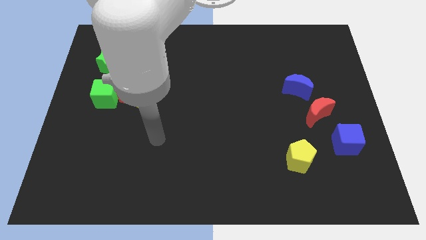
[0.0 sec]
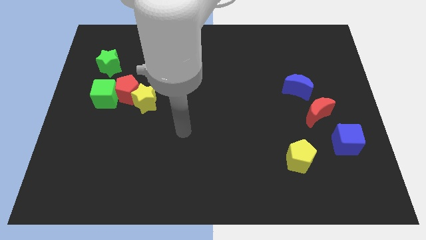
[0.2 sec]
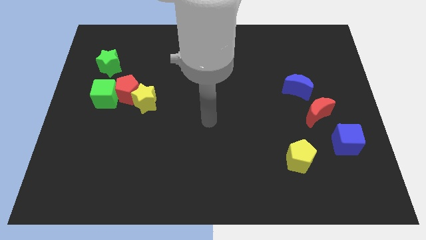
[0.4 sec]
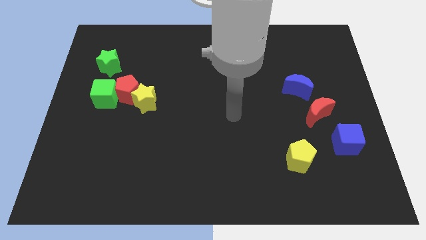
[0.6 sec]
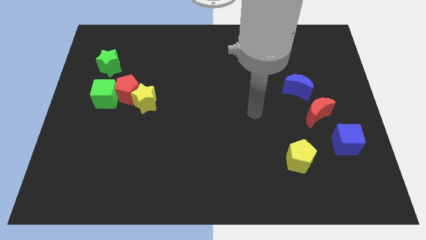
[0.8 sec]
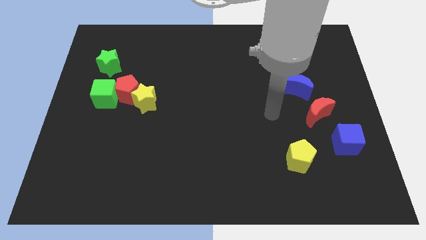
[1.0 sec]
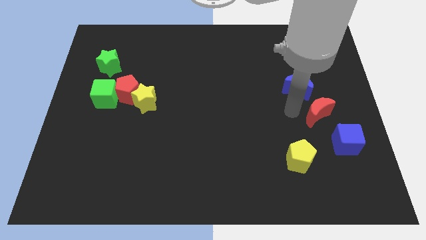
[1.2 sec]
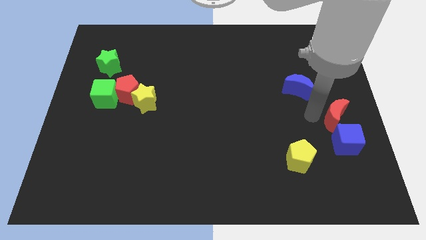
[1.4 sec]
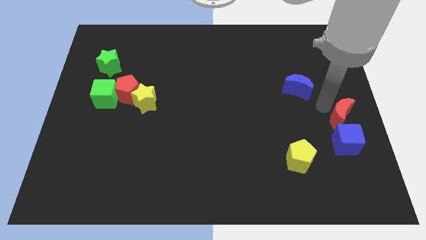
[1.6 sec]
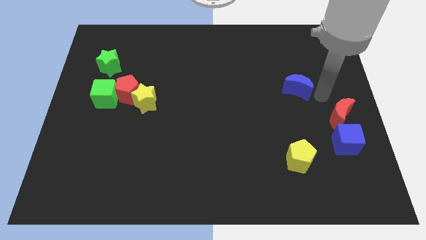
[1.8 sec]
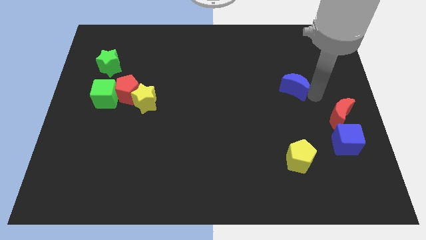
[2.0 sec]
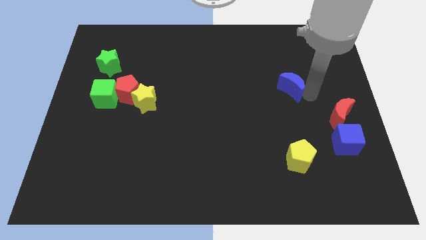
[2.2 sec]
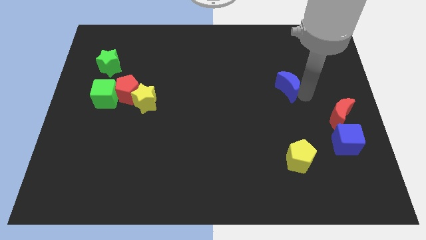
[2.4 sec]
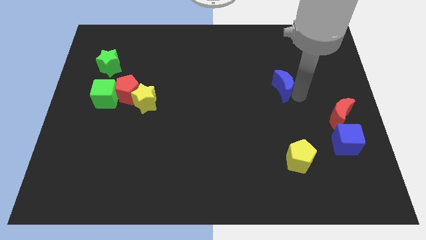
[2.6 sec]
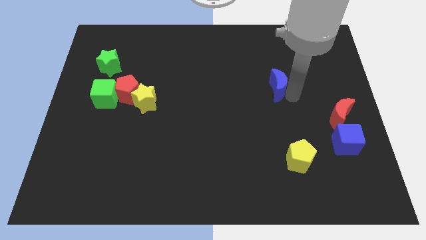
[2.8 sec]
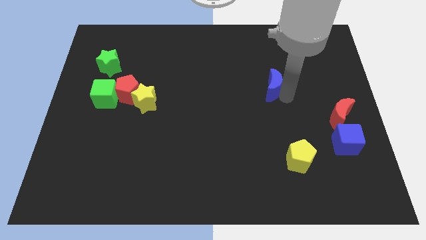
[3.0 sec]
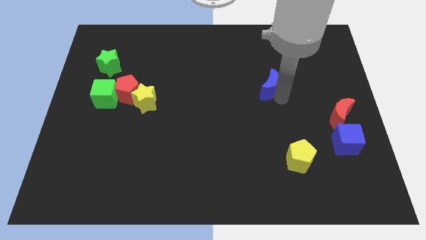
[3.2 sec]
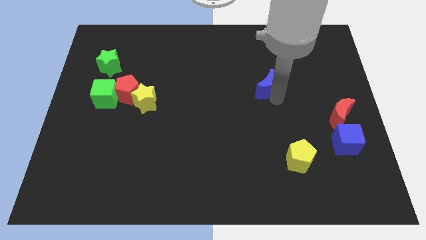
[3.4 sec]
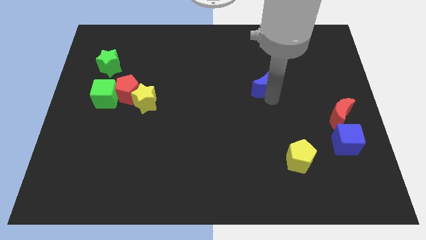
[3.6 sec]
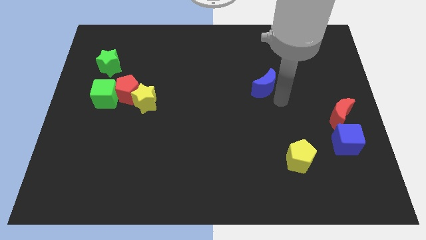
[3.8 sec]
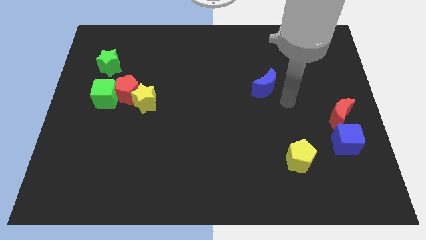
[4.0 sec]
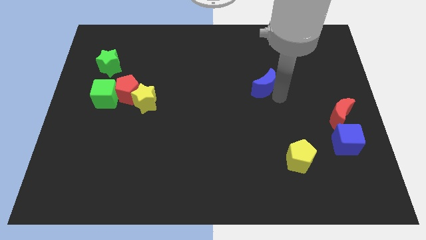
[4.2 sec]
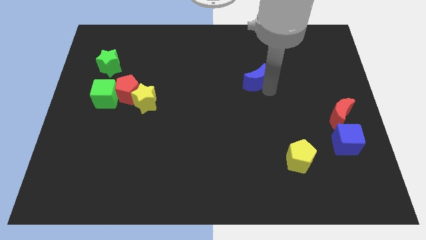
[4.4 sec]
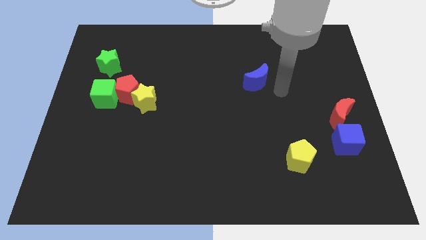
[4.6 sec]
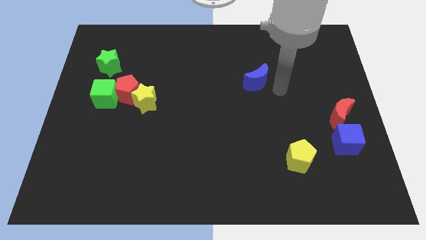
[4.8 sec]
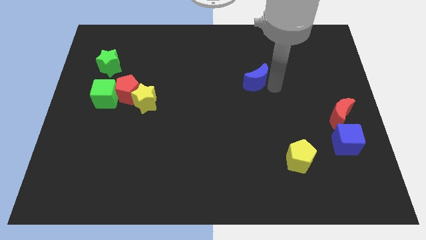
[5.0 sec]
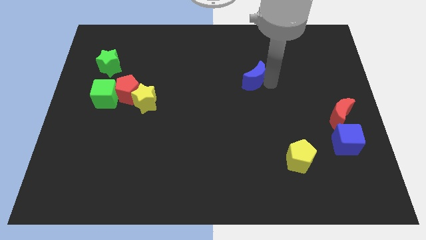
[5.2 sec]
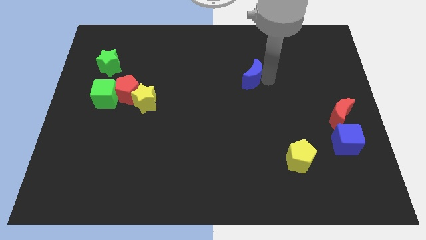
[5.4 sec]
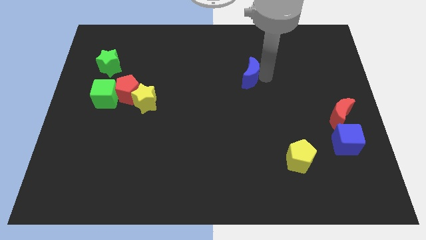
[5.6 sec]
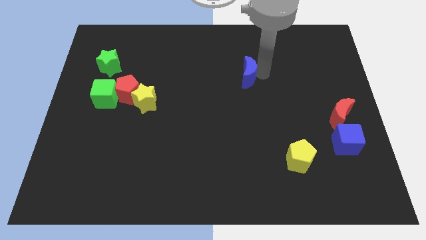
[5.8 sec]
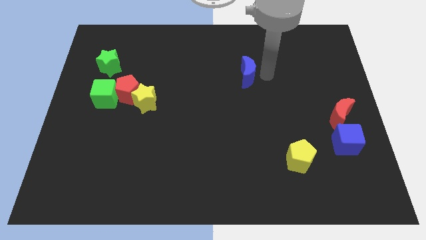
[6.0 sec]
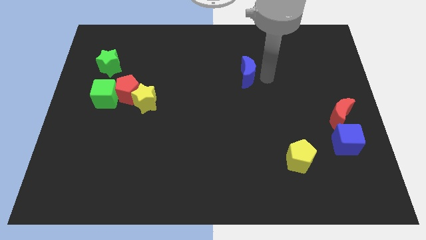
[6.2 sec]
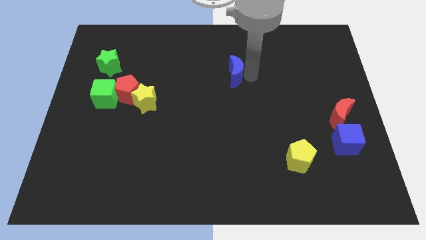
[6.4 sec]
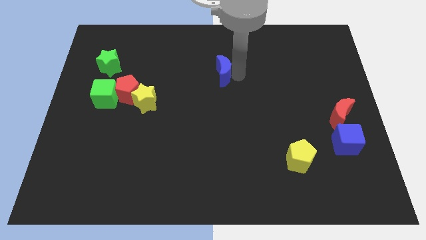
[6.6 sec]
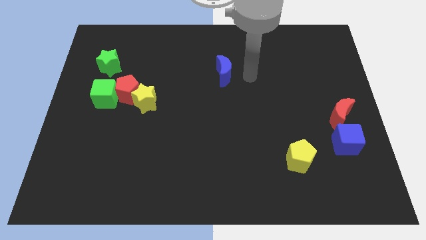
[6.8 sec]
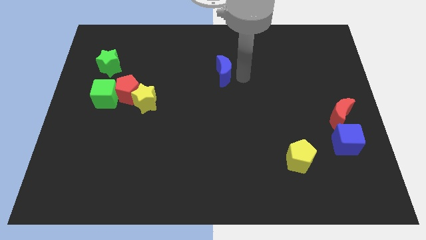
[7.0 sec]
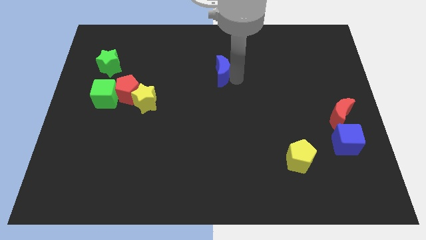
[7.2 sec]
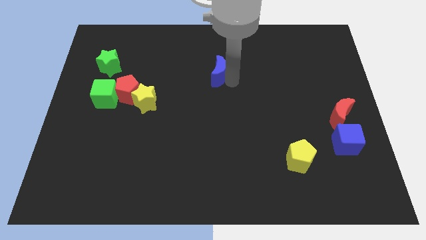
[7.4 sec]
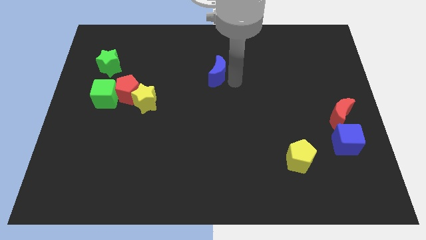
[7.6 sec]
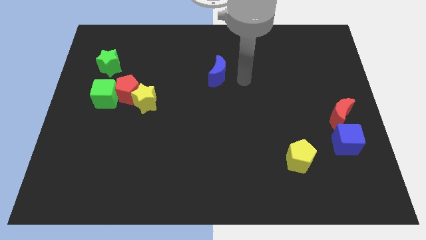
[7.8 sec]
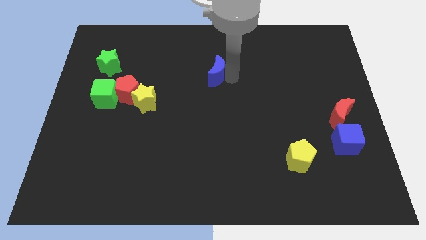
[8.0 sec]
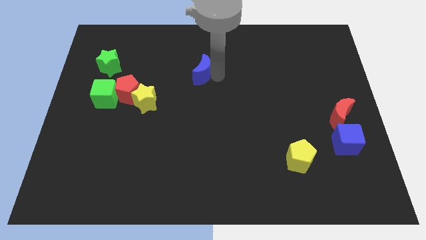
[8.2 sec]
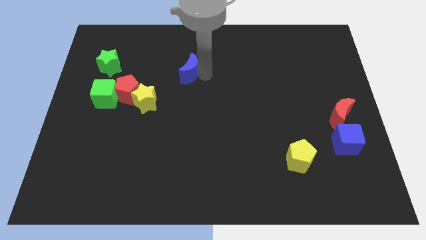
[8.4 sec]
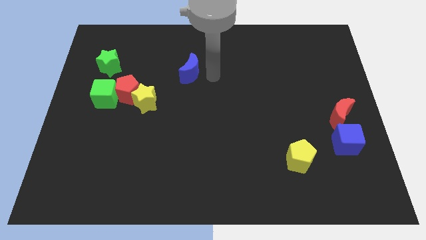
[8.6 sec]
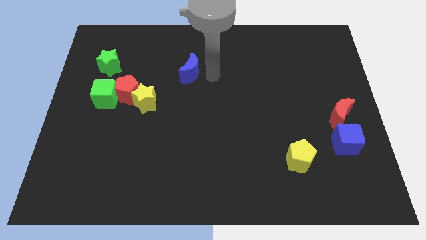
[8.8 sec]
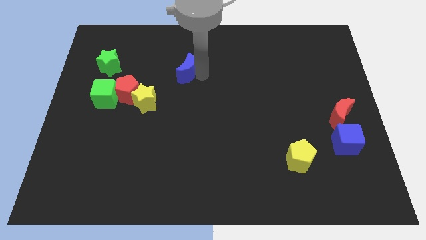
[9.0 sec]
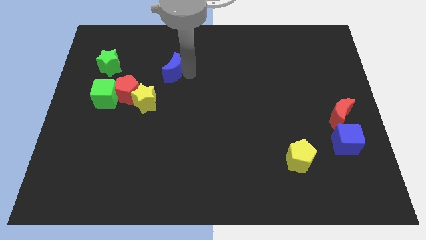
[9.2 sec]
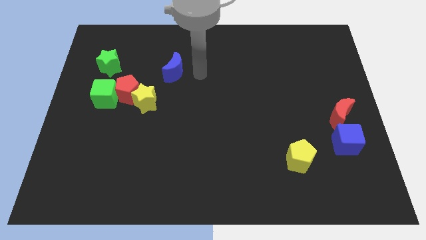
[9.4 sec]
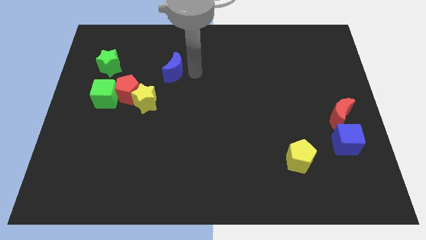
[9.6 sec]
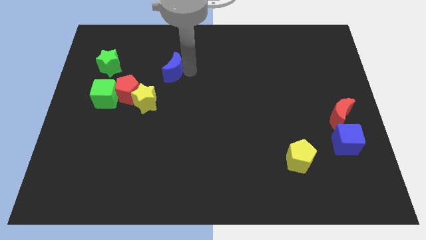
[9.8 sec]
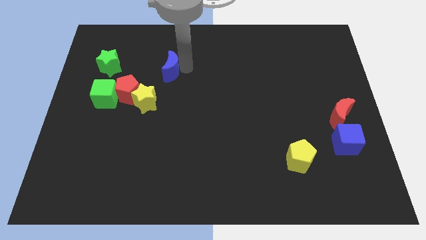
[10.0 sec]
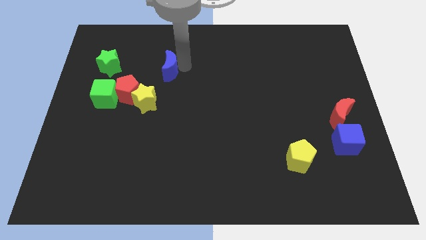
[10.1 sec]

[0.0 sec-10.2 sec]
slide the blue moon above the yellow star

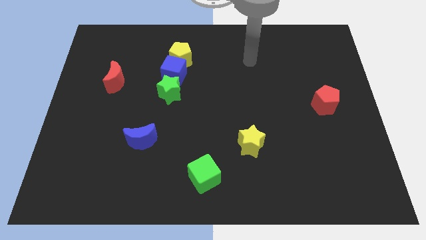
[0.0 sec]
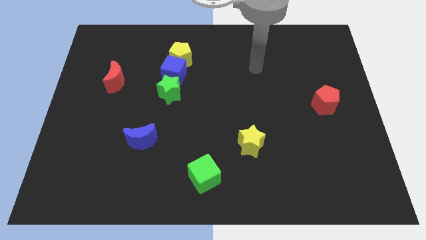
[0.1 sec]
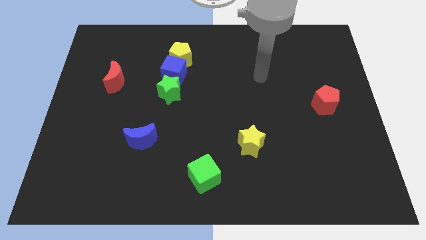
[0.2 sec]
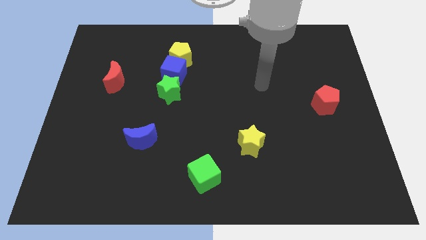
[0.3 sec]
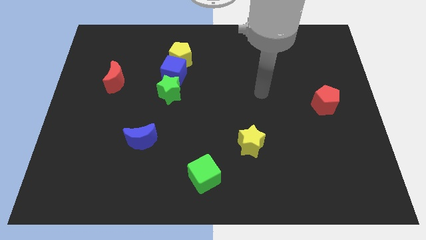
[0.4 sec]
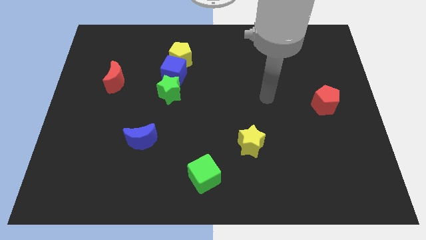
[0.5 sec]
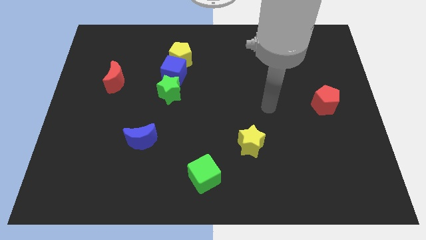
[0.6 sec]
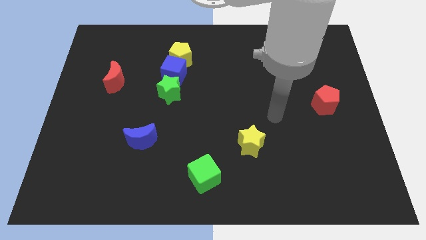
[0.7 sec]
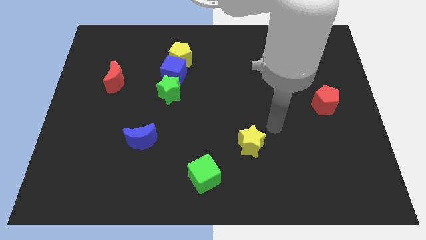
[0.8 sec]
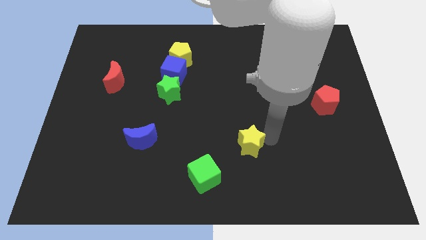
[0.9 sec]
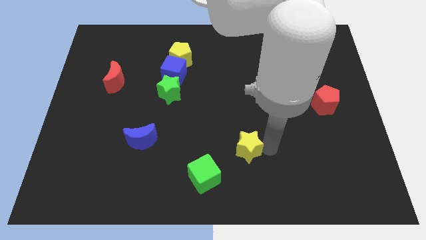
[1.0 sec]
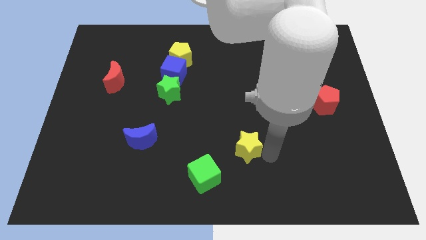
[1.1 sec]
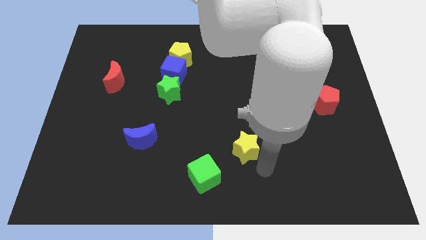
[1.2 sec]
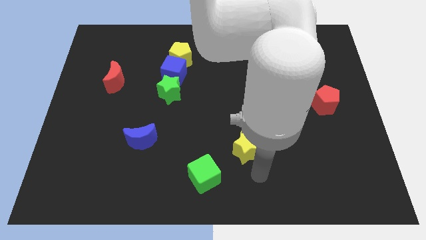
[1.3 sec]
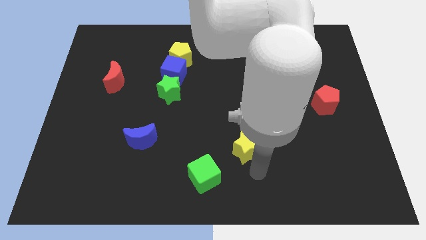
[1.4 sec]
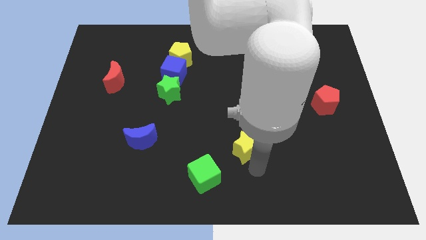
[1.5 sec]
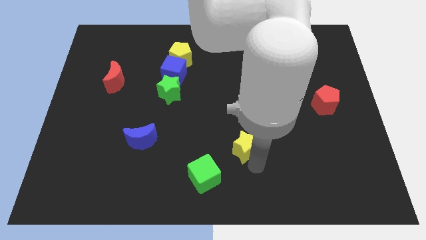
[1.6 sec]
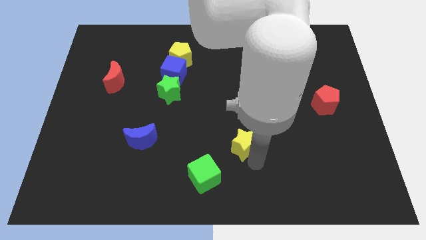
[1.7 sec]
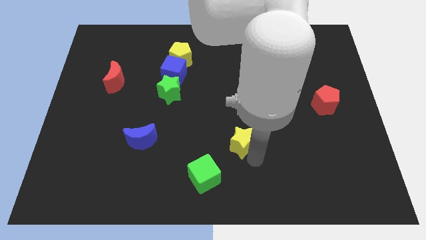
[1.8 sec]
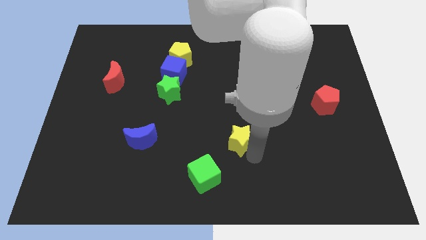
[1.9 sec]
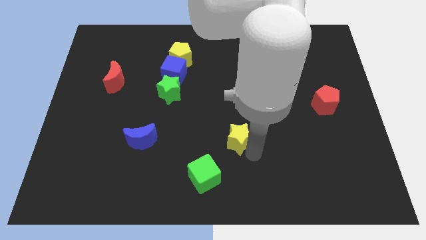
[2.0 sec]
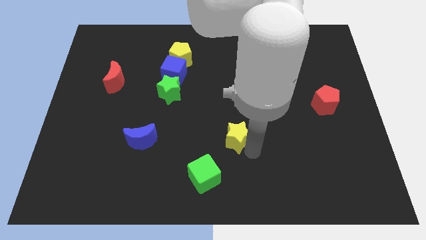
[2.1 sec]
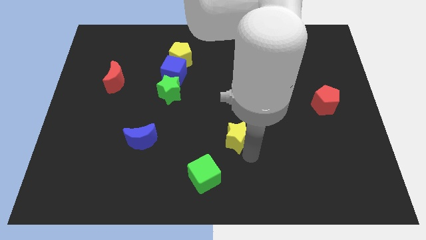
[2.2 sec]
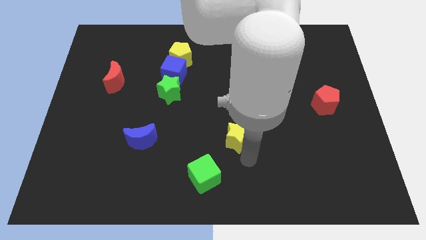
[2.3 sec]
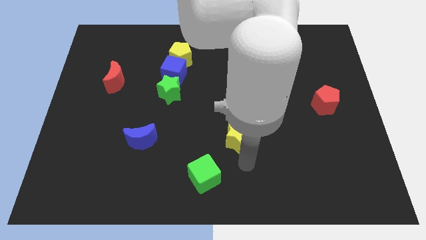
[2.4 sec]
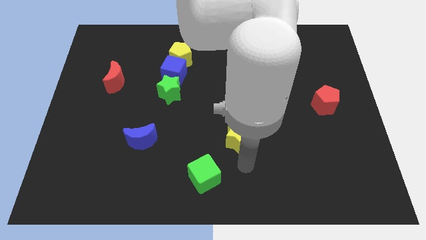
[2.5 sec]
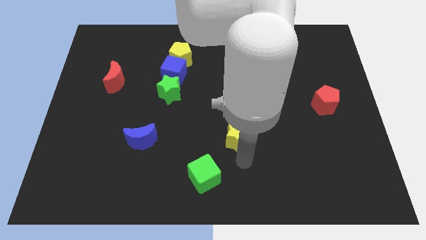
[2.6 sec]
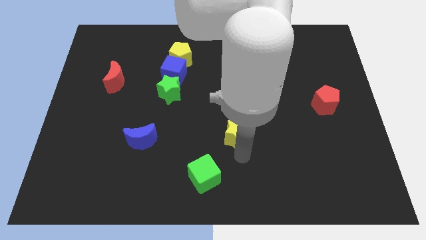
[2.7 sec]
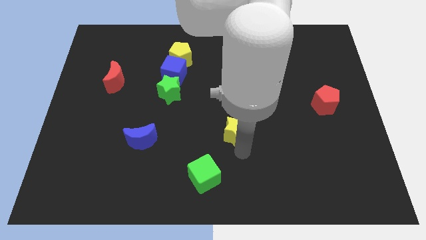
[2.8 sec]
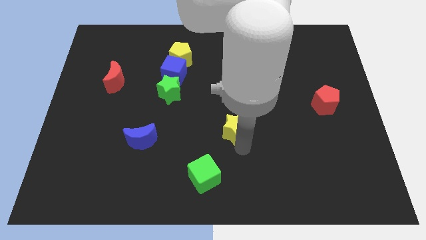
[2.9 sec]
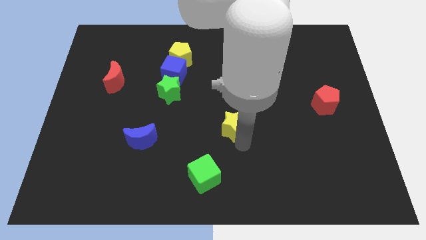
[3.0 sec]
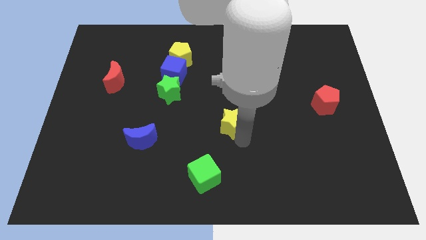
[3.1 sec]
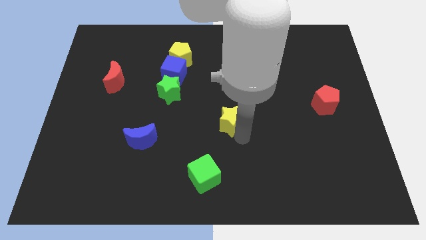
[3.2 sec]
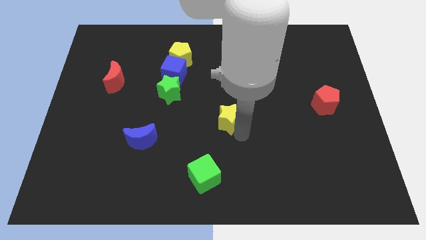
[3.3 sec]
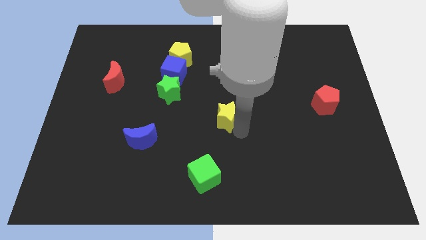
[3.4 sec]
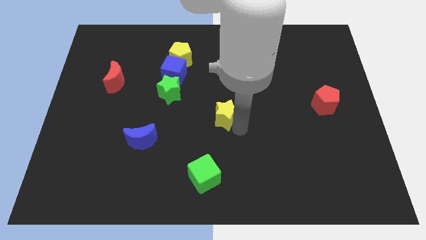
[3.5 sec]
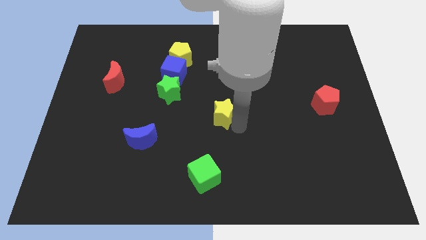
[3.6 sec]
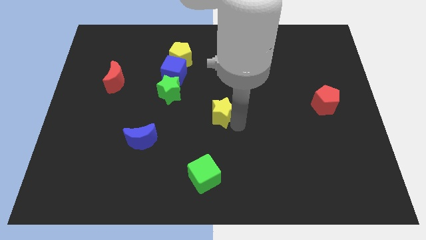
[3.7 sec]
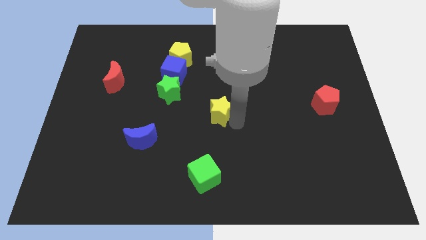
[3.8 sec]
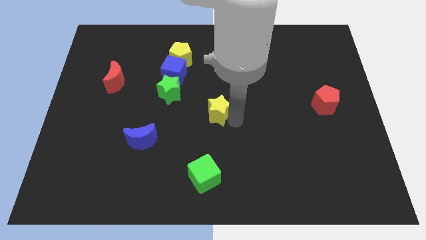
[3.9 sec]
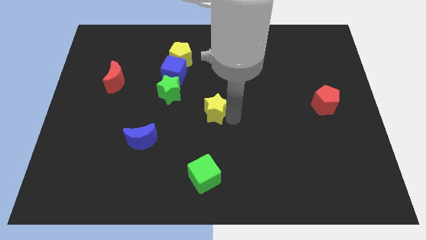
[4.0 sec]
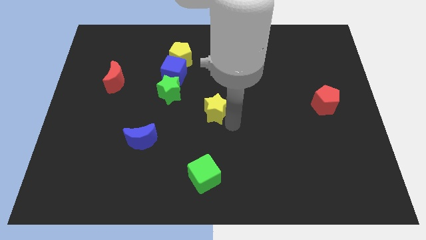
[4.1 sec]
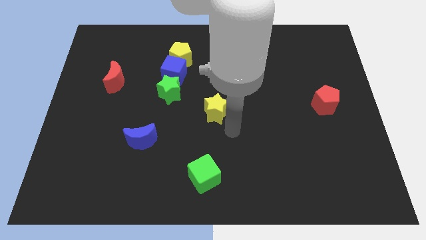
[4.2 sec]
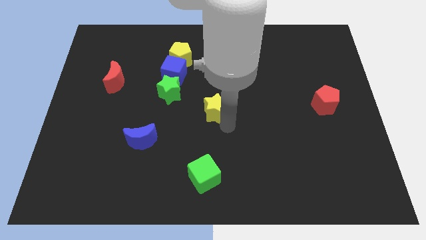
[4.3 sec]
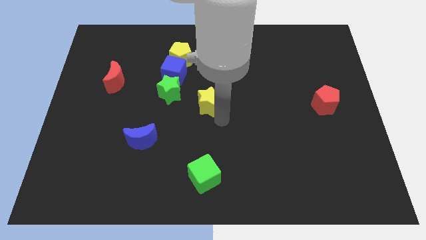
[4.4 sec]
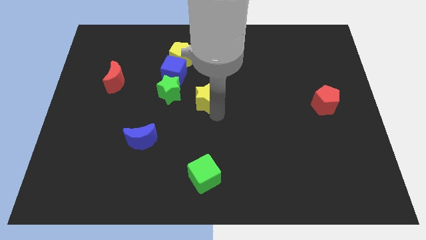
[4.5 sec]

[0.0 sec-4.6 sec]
slide the yellow star to the bottom right side of the blue cube
